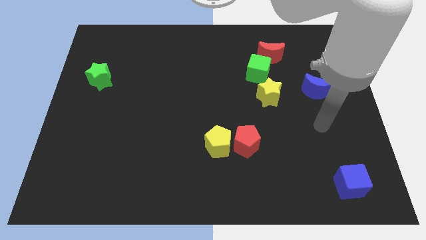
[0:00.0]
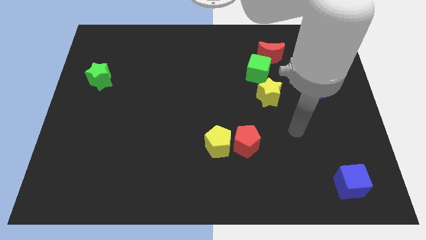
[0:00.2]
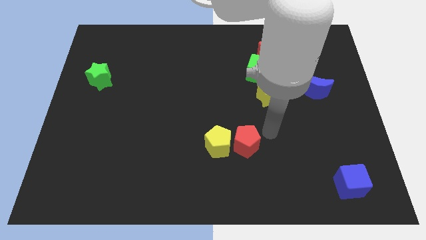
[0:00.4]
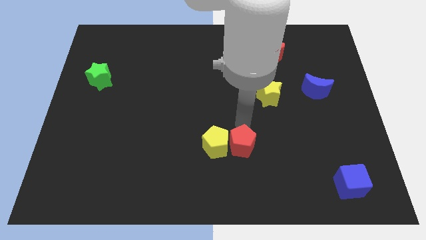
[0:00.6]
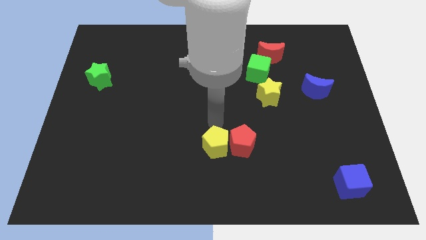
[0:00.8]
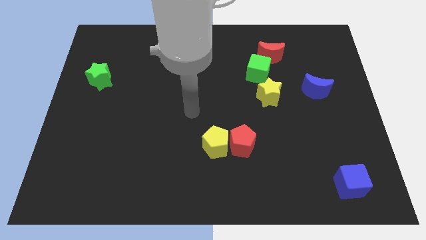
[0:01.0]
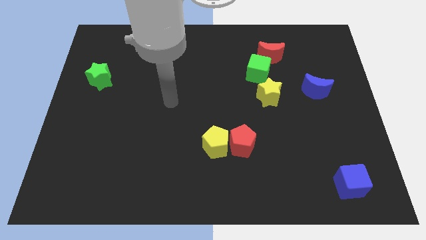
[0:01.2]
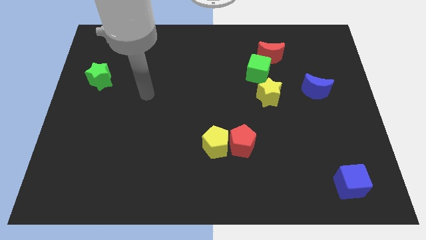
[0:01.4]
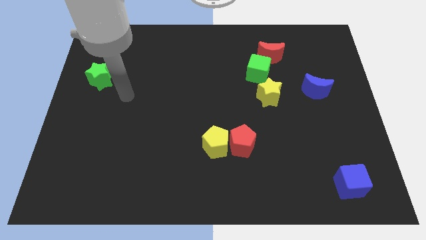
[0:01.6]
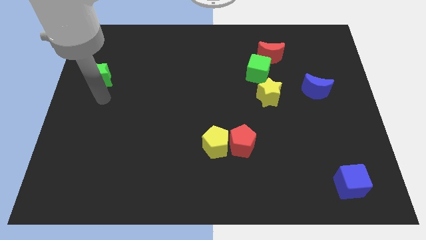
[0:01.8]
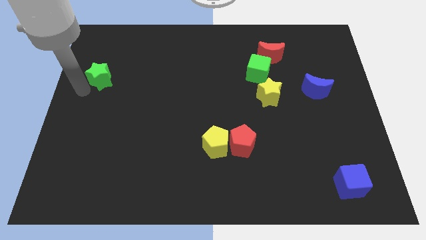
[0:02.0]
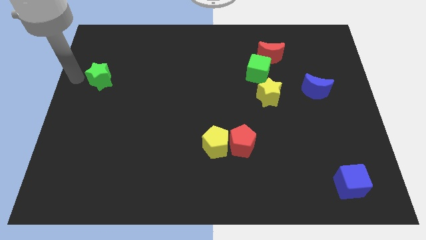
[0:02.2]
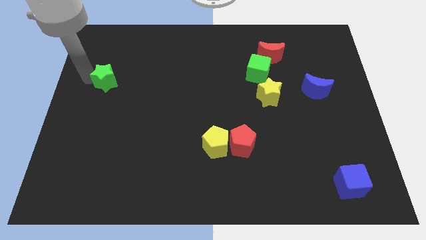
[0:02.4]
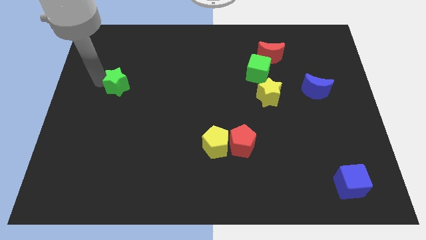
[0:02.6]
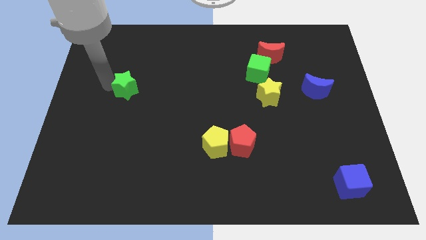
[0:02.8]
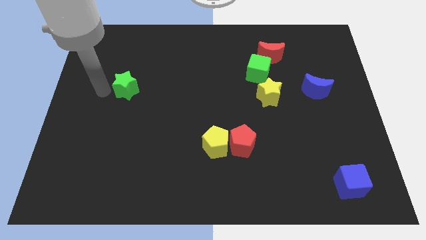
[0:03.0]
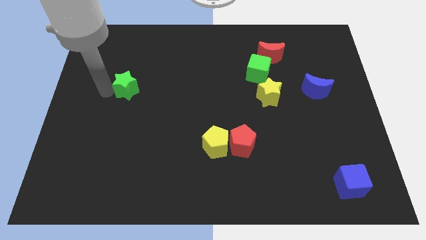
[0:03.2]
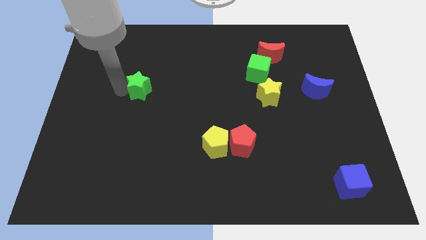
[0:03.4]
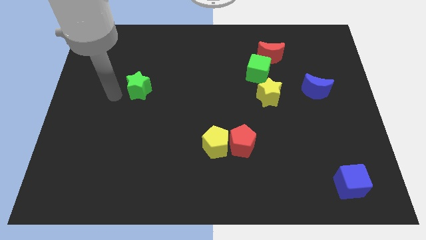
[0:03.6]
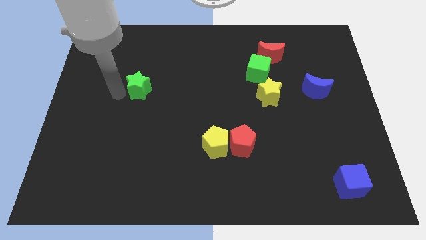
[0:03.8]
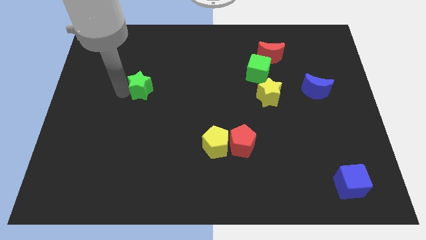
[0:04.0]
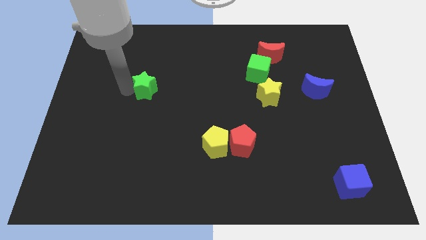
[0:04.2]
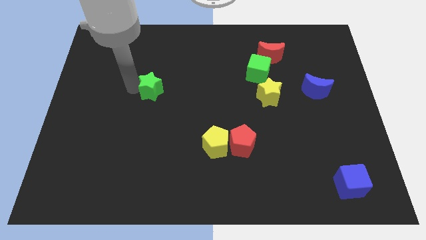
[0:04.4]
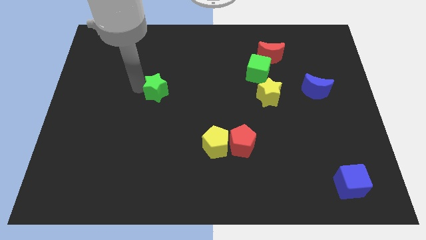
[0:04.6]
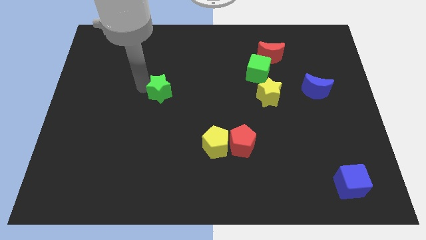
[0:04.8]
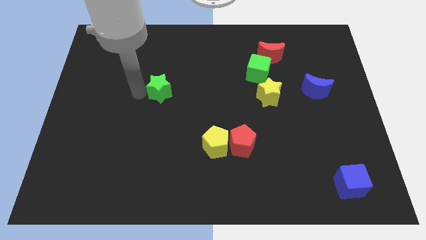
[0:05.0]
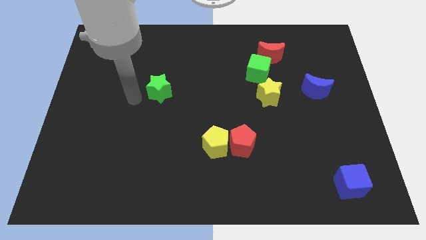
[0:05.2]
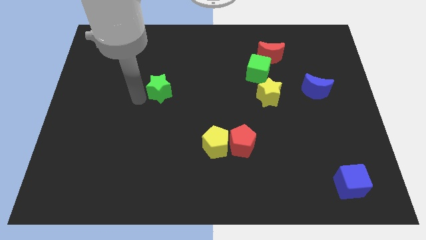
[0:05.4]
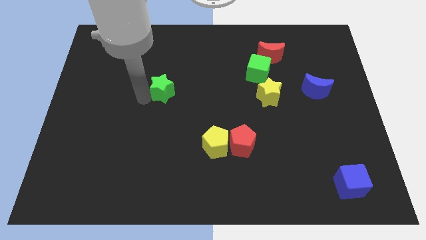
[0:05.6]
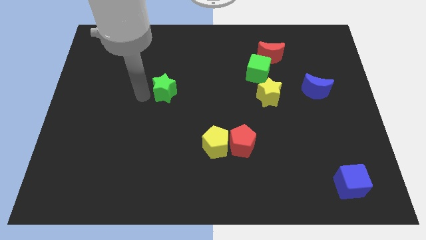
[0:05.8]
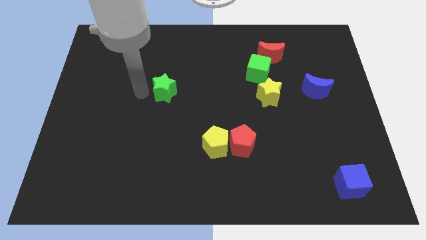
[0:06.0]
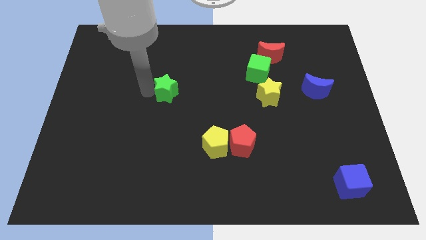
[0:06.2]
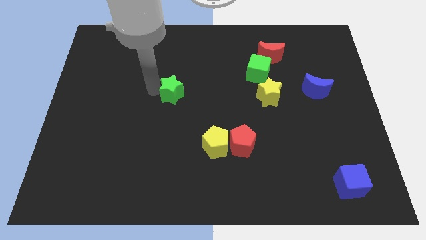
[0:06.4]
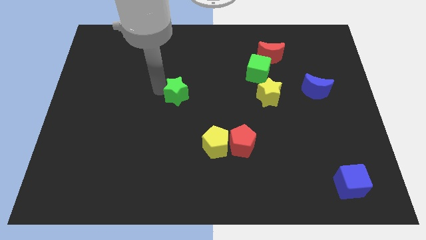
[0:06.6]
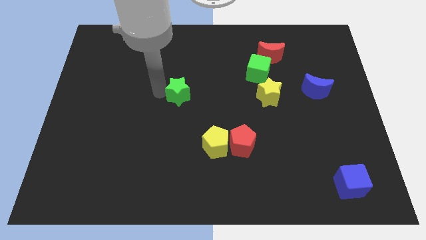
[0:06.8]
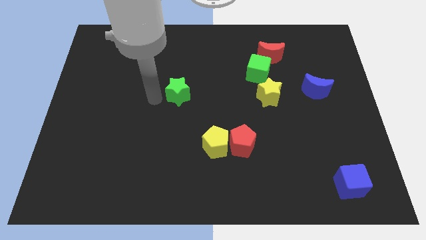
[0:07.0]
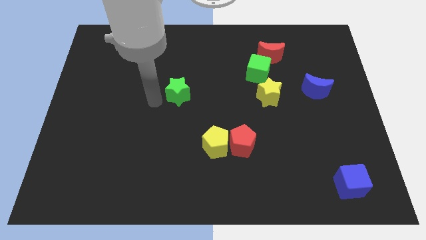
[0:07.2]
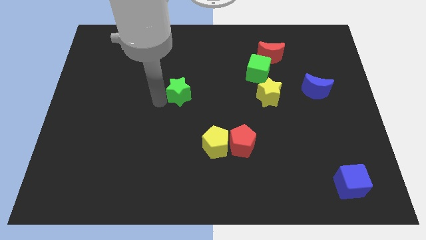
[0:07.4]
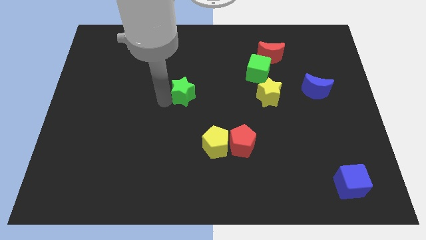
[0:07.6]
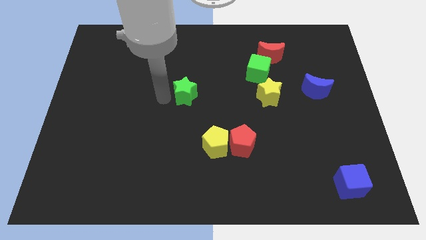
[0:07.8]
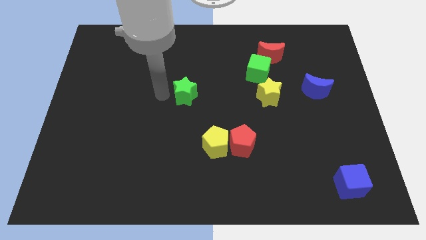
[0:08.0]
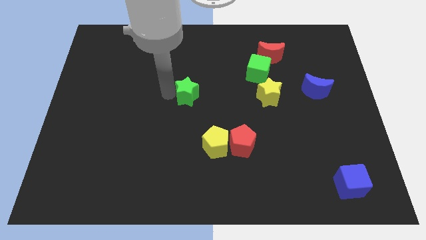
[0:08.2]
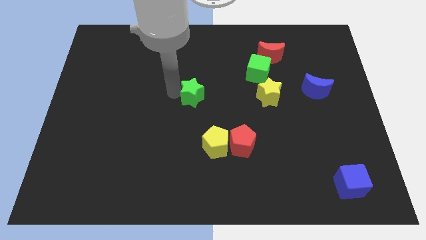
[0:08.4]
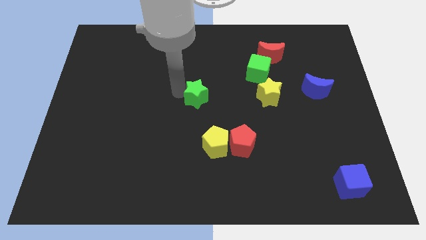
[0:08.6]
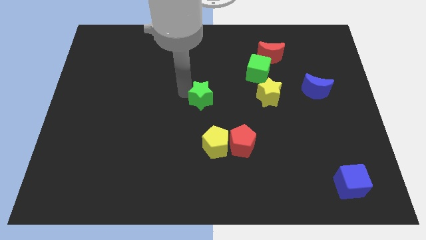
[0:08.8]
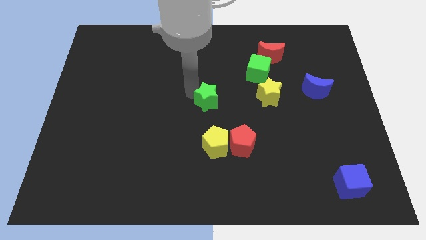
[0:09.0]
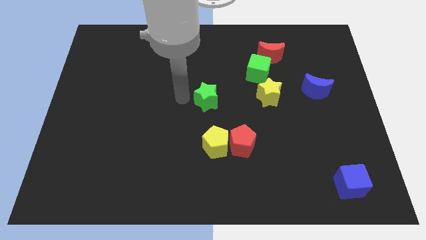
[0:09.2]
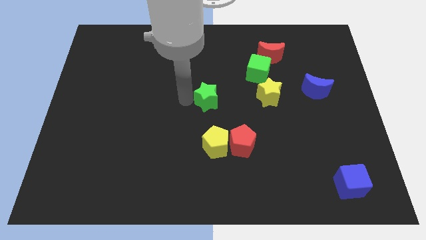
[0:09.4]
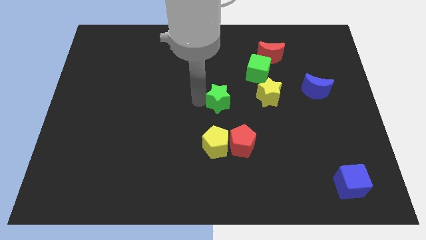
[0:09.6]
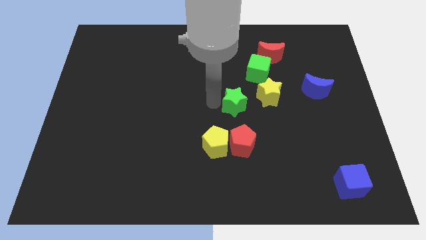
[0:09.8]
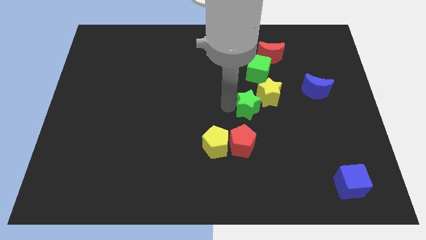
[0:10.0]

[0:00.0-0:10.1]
push the green star below the green cube

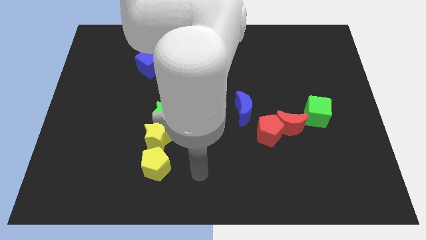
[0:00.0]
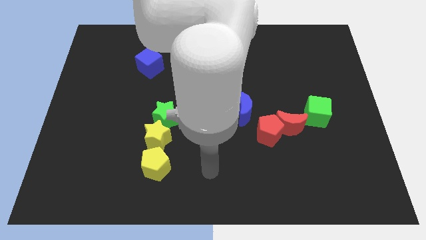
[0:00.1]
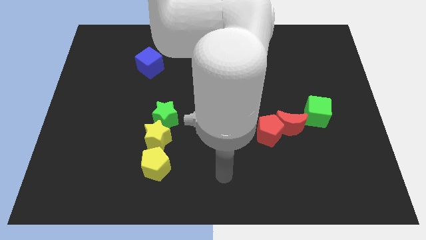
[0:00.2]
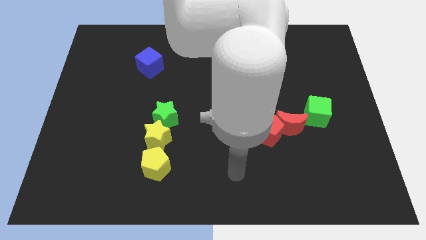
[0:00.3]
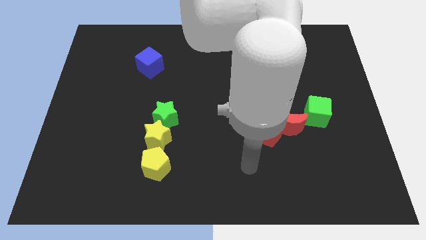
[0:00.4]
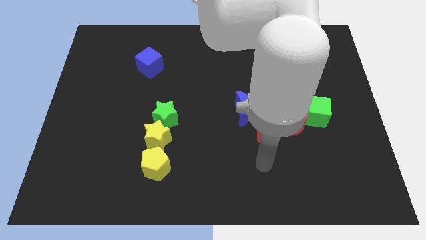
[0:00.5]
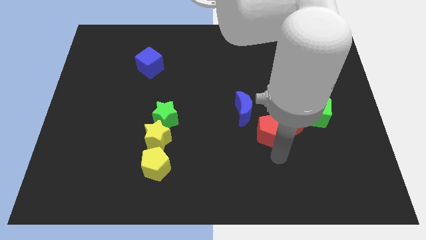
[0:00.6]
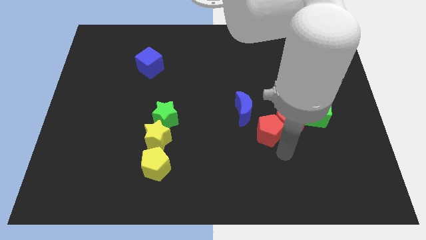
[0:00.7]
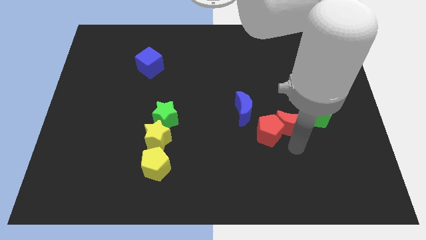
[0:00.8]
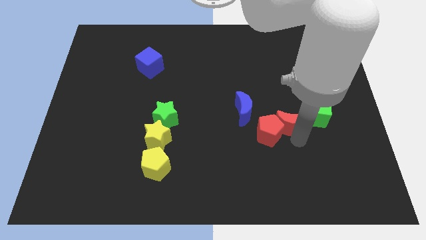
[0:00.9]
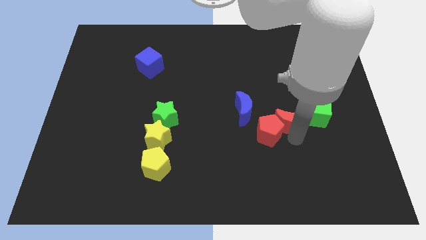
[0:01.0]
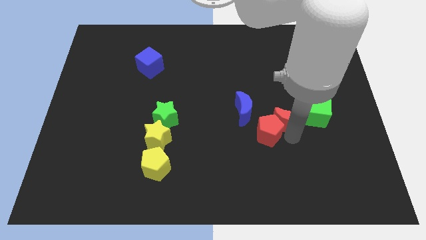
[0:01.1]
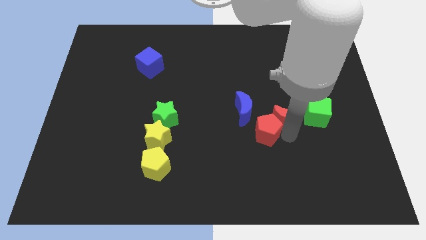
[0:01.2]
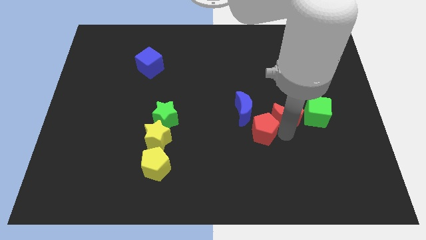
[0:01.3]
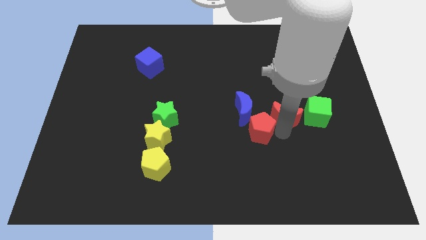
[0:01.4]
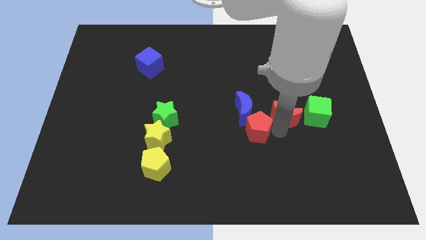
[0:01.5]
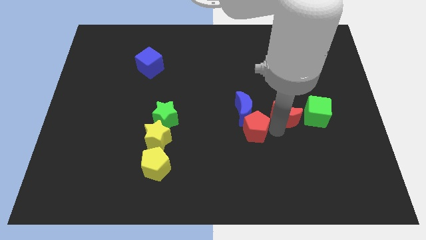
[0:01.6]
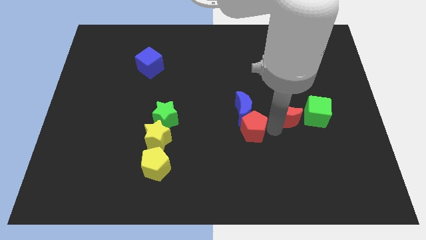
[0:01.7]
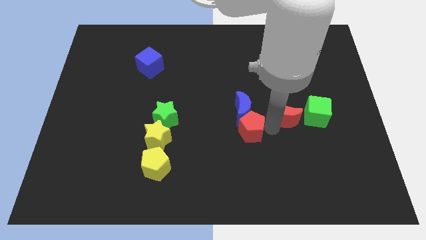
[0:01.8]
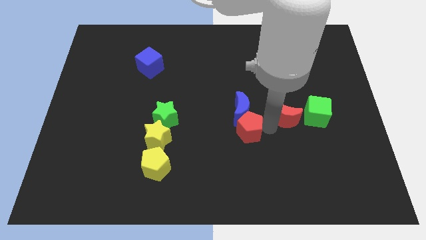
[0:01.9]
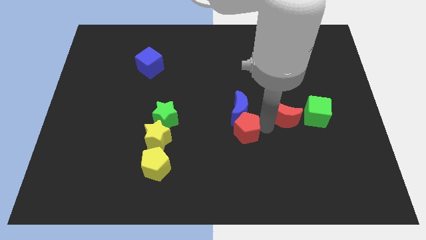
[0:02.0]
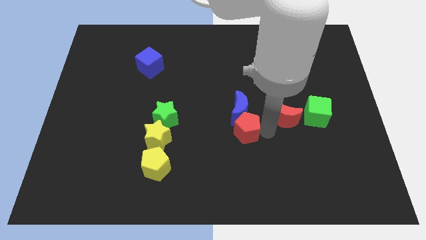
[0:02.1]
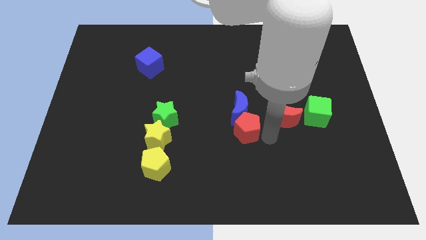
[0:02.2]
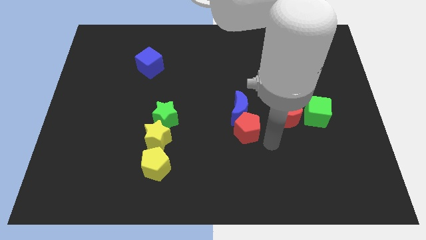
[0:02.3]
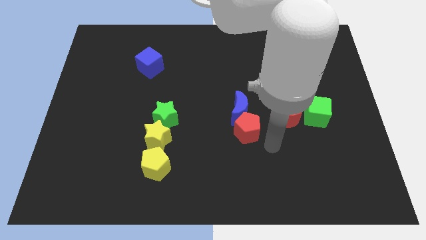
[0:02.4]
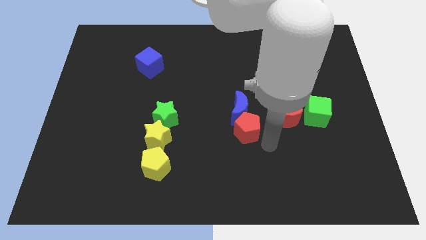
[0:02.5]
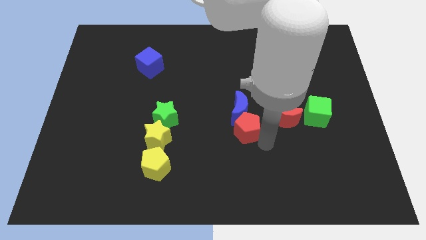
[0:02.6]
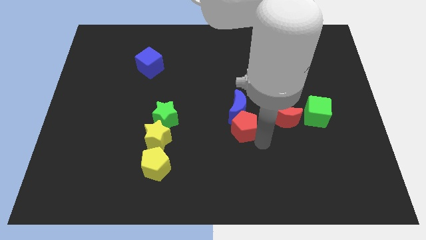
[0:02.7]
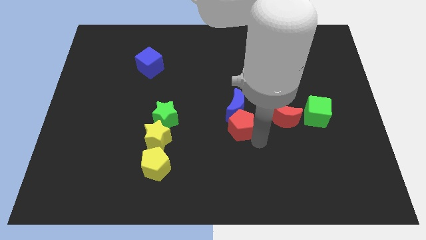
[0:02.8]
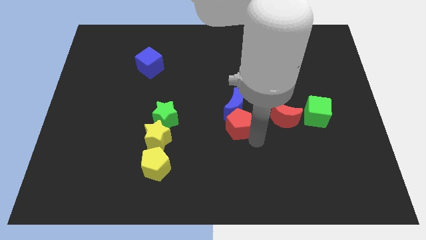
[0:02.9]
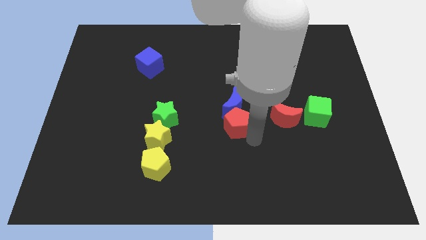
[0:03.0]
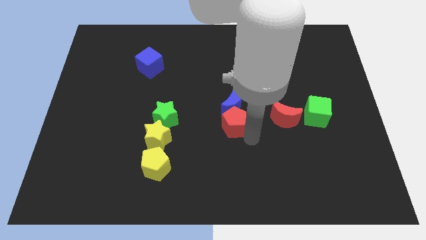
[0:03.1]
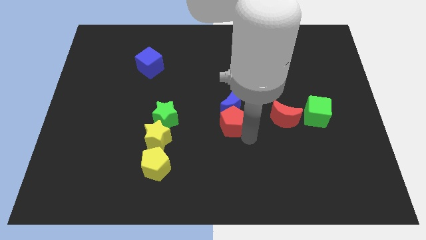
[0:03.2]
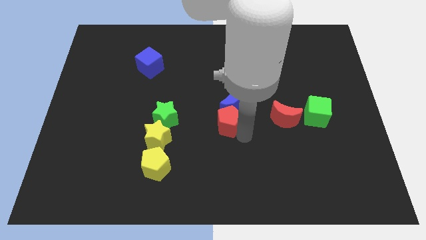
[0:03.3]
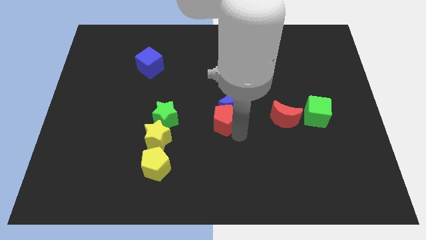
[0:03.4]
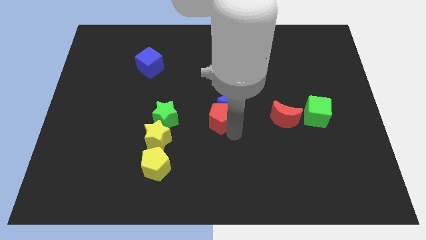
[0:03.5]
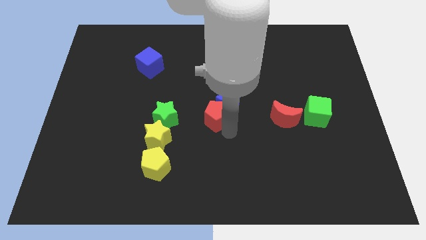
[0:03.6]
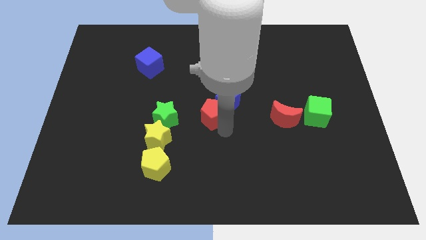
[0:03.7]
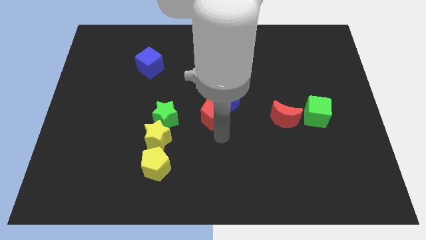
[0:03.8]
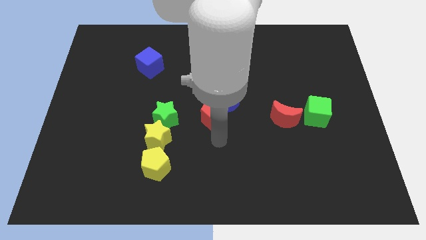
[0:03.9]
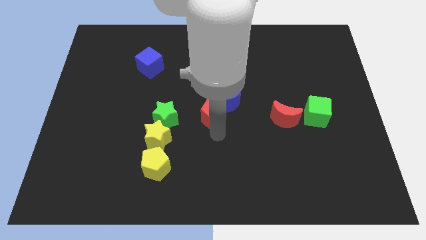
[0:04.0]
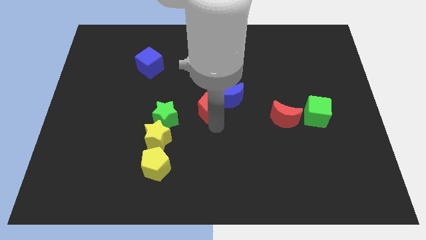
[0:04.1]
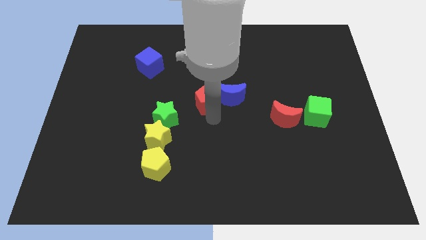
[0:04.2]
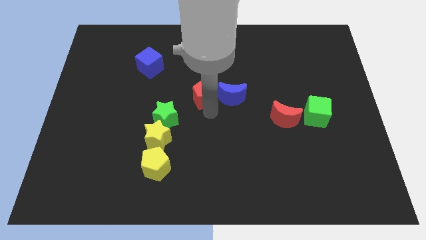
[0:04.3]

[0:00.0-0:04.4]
slide the red pentagon to the top left of the blue moon
